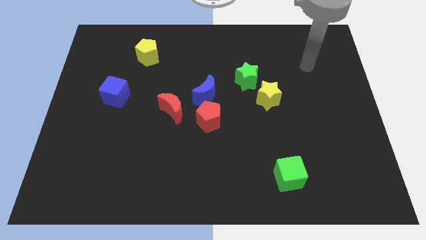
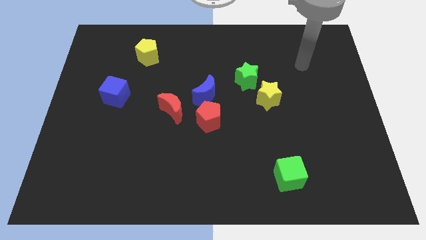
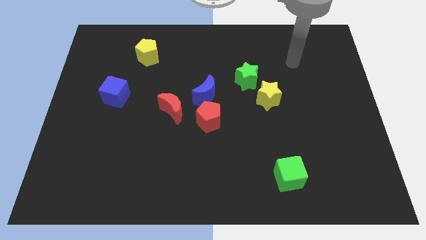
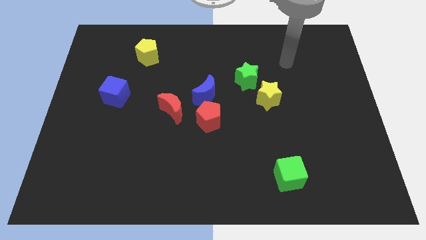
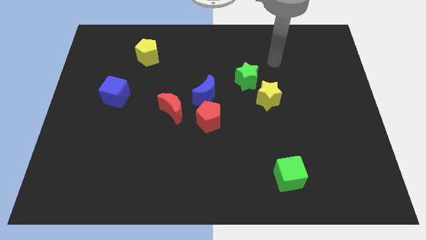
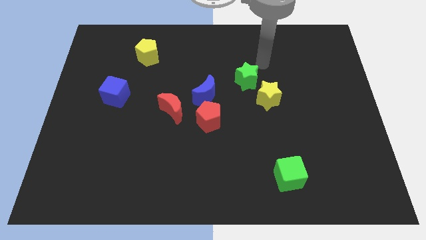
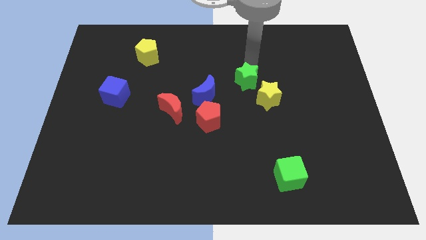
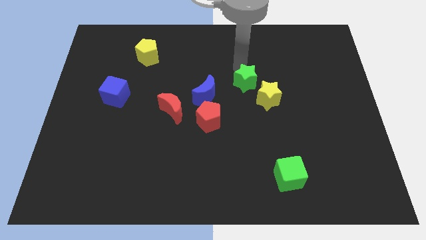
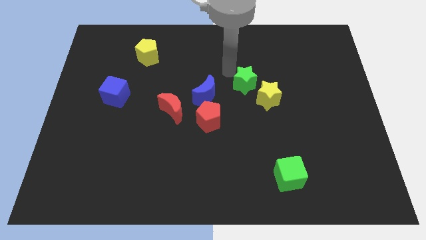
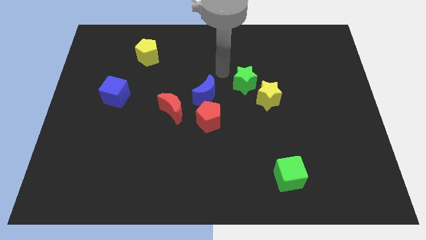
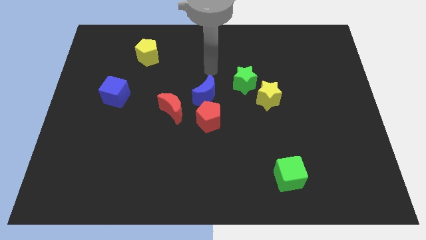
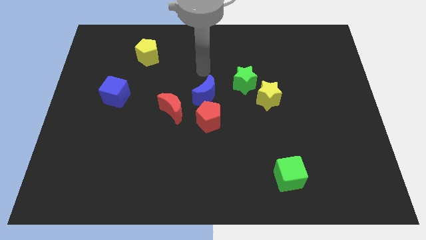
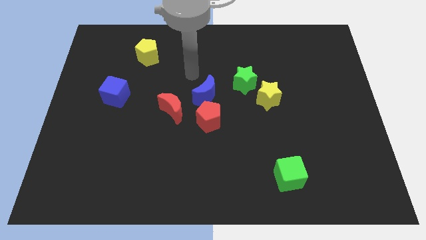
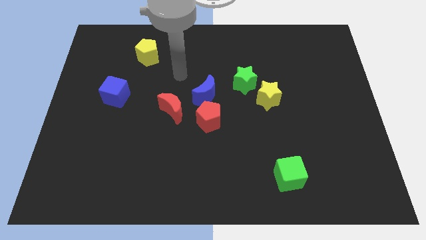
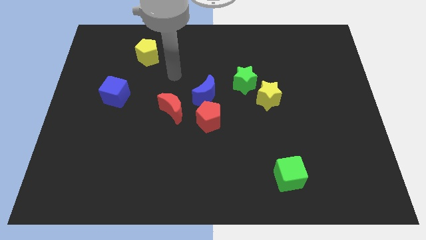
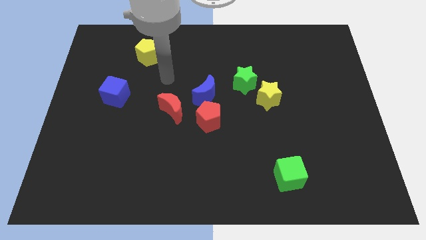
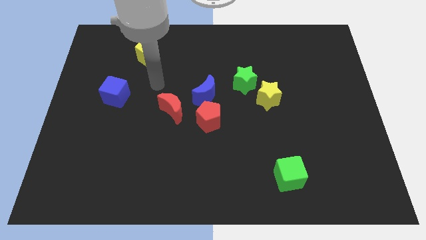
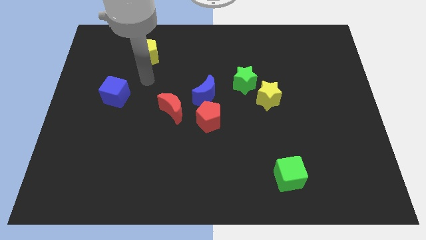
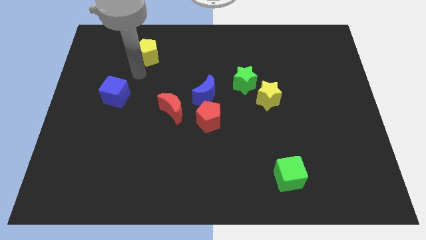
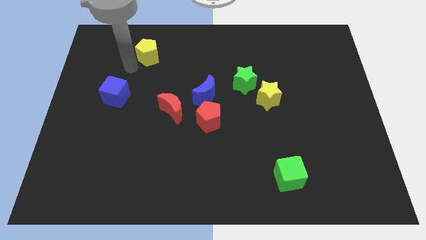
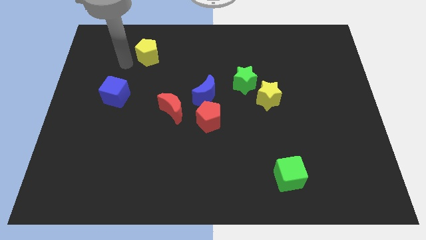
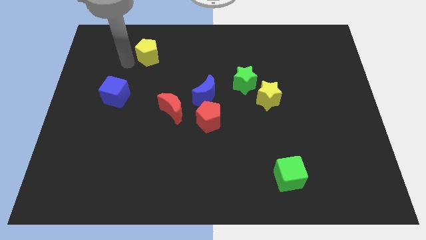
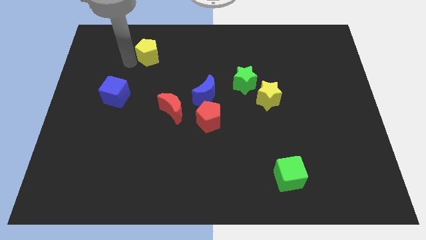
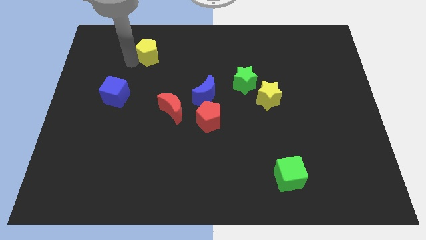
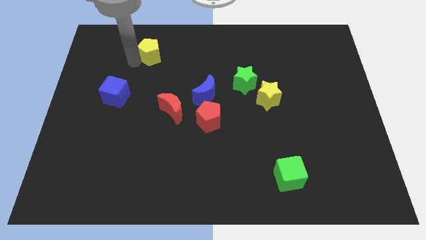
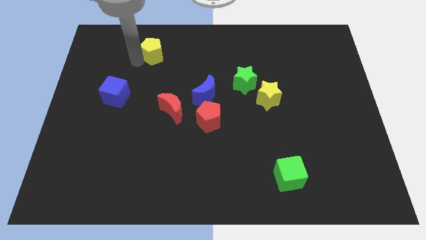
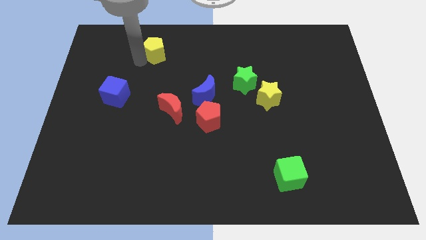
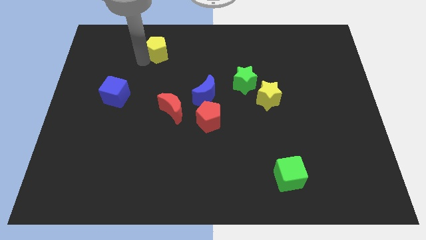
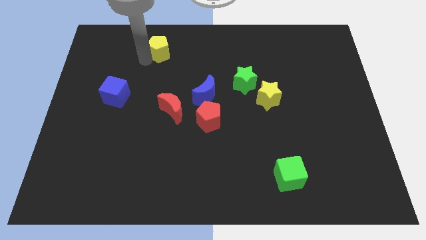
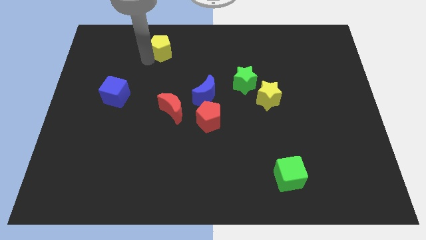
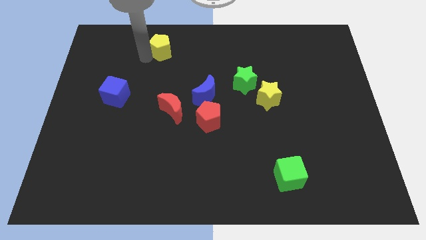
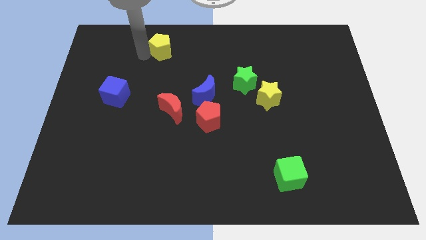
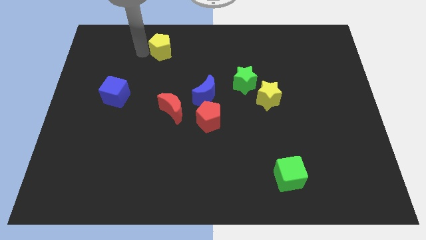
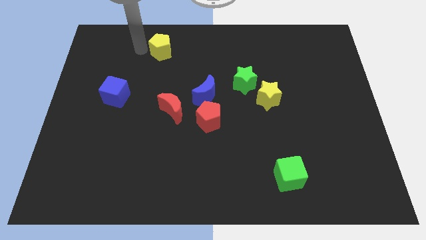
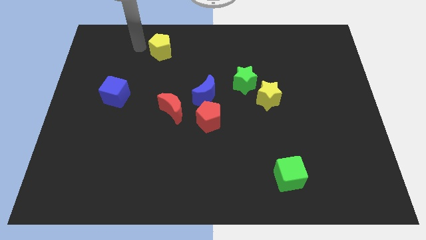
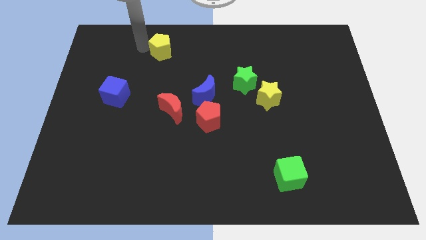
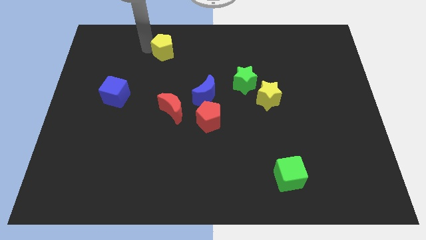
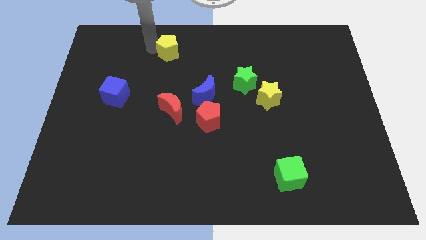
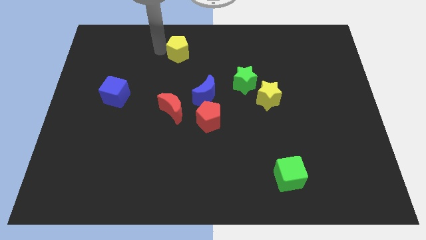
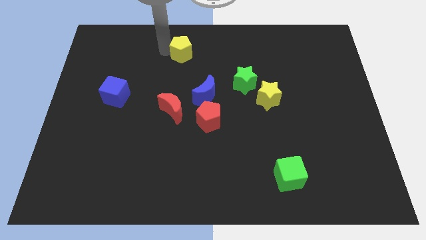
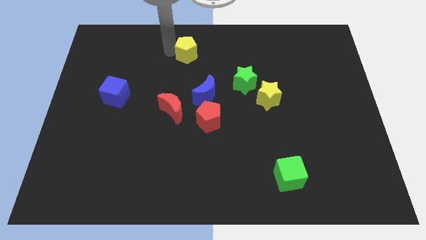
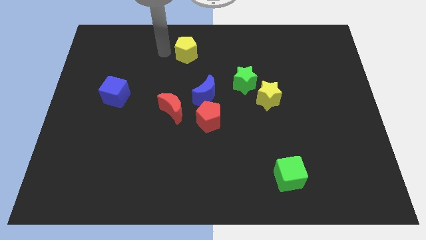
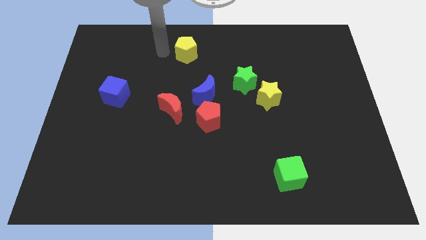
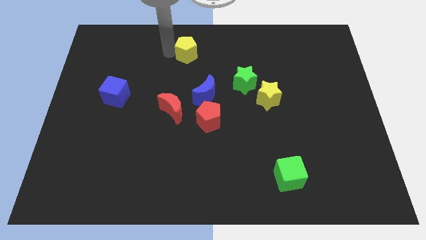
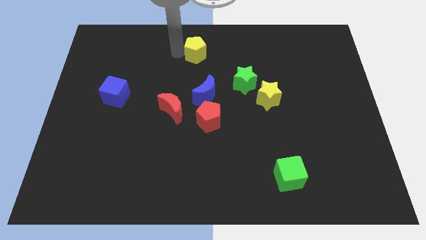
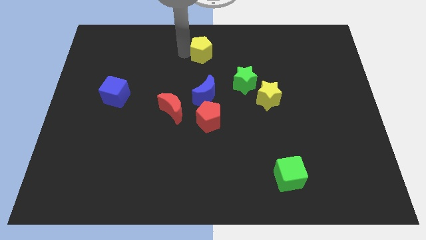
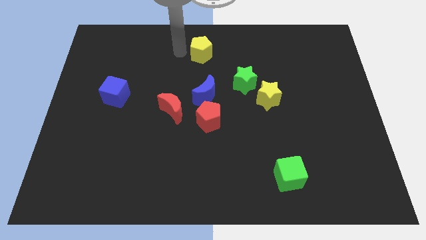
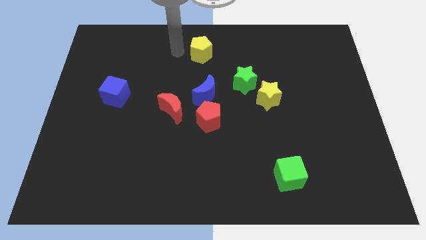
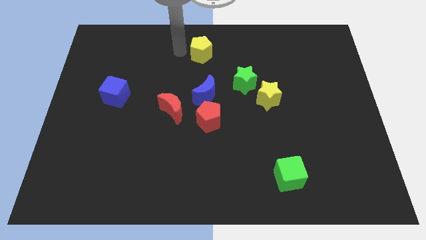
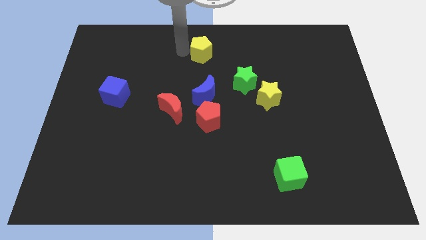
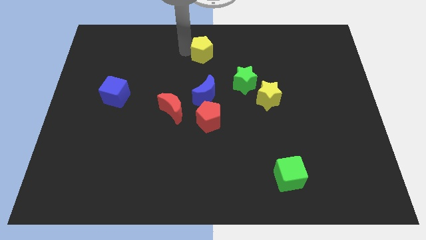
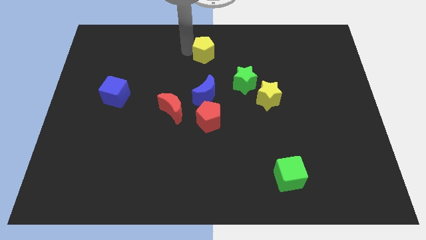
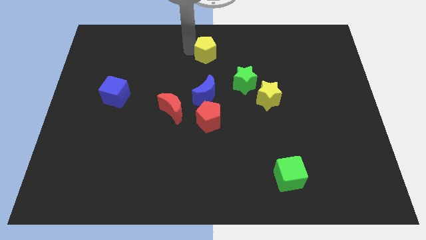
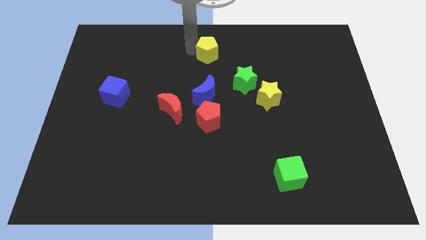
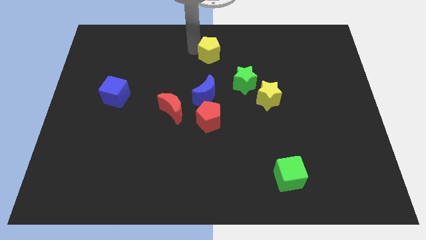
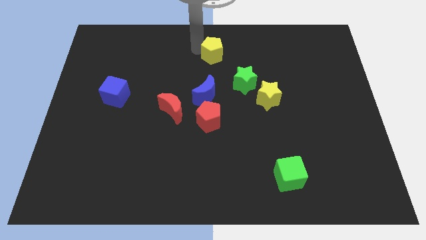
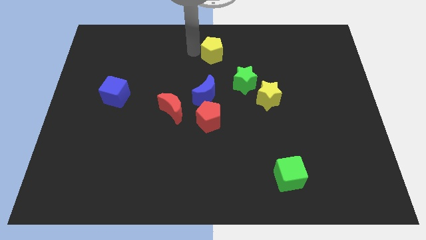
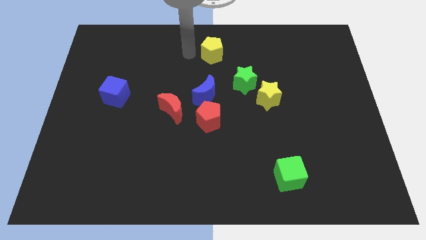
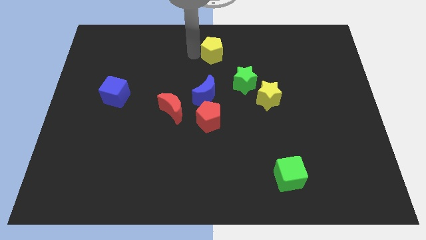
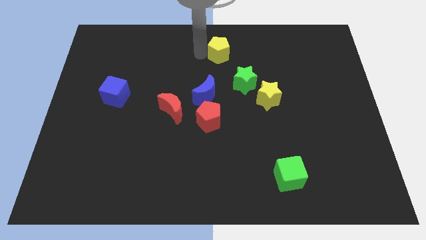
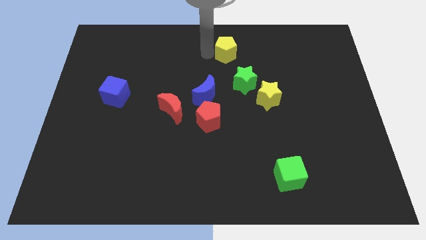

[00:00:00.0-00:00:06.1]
push the yellow pentagon right

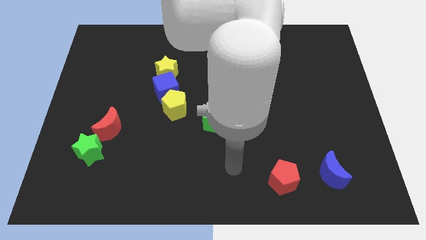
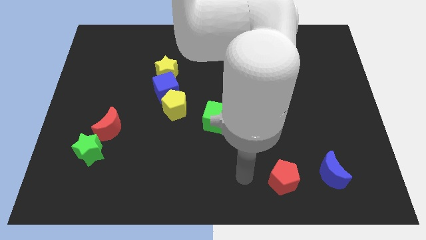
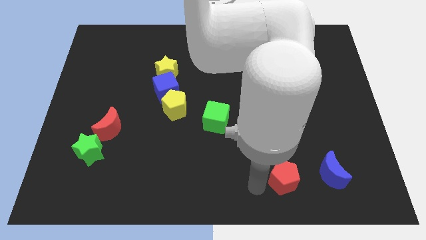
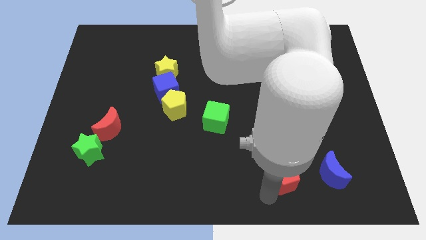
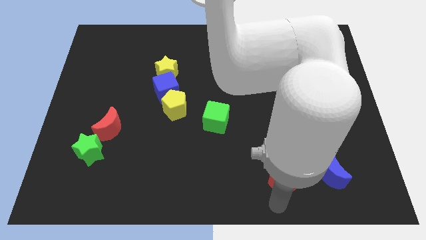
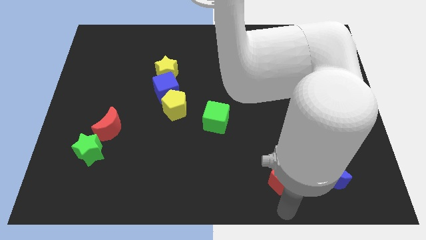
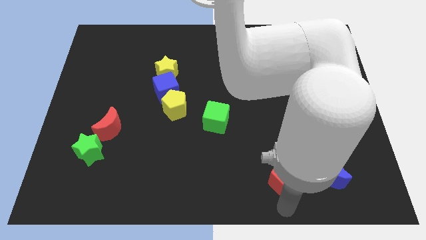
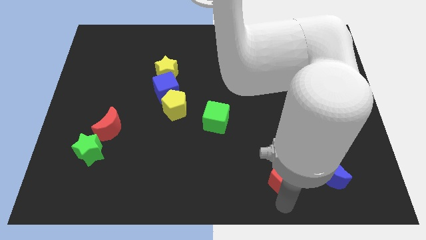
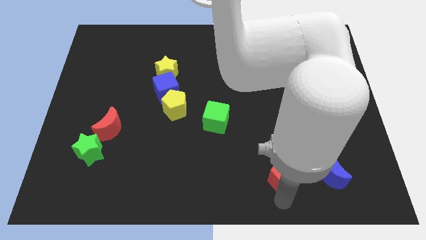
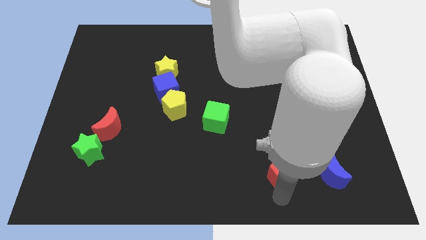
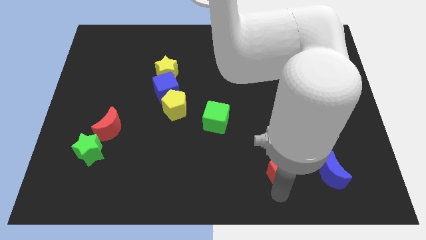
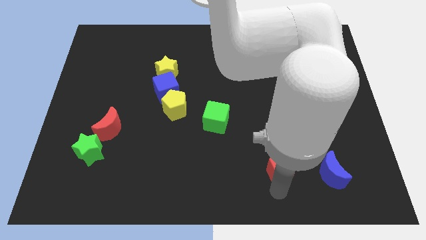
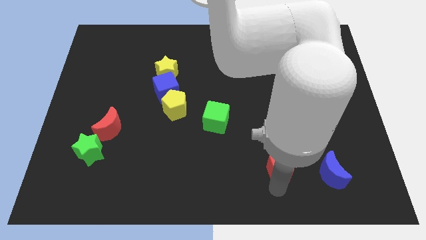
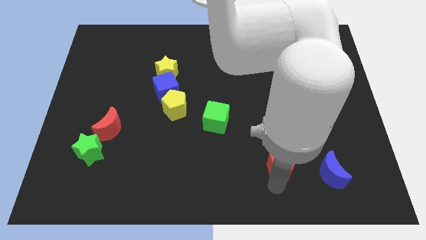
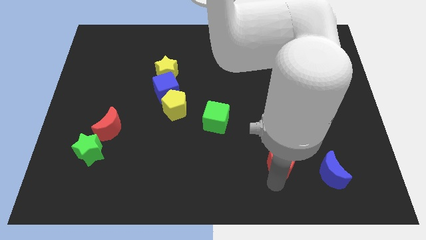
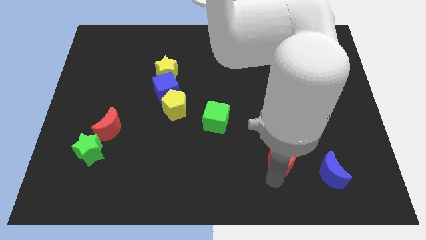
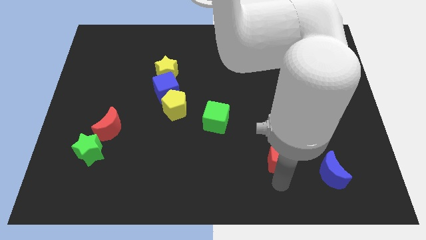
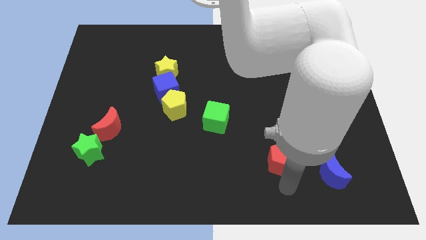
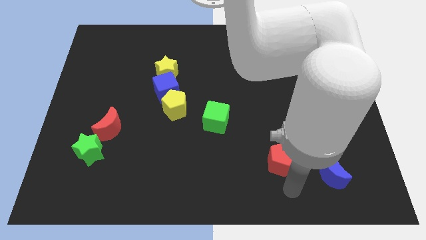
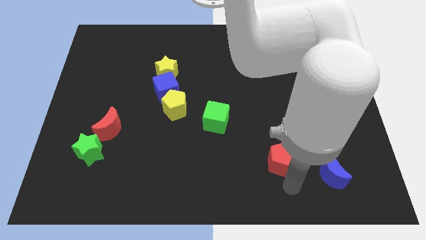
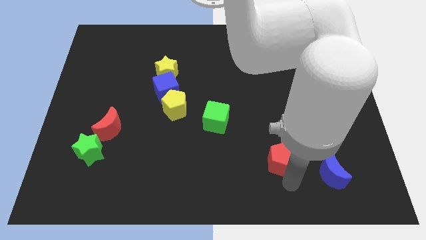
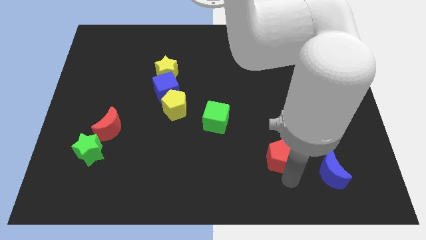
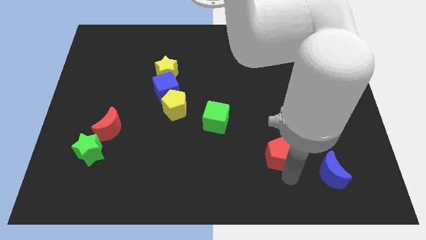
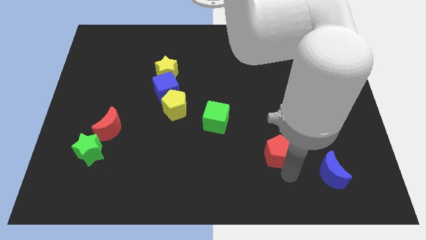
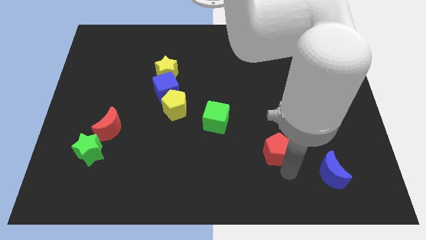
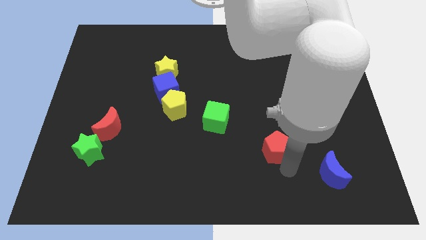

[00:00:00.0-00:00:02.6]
move the red pentagon a little up
